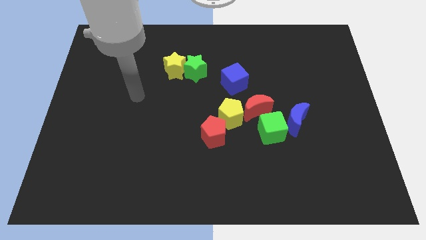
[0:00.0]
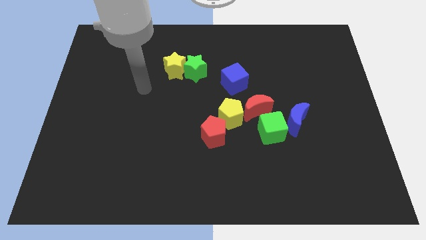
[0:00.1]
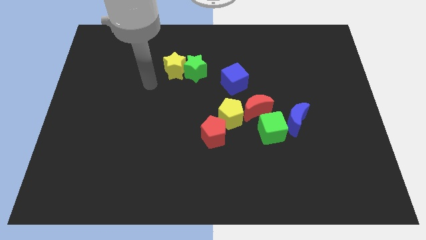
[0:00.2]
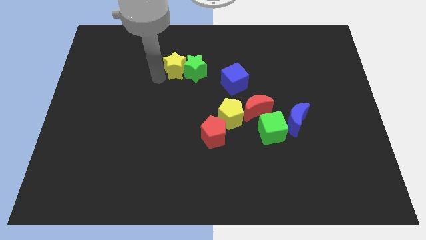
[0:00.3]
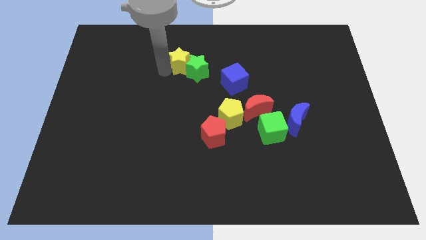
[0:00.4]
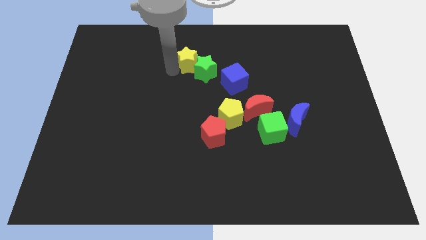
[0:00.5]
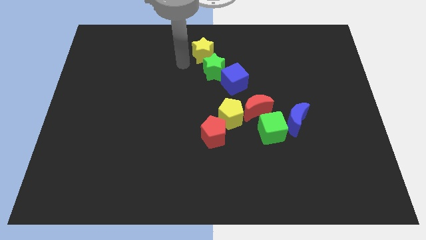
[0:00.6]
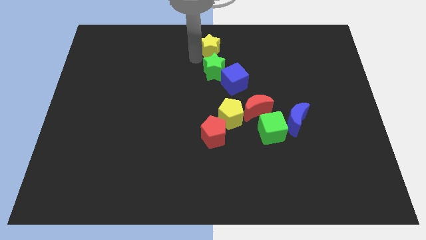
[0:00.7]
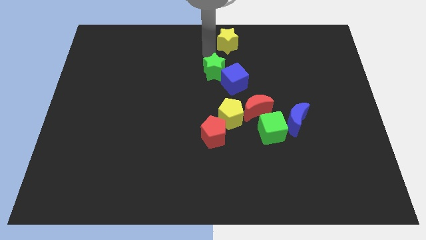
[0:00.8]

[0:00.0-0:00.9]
pull the green star apart from the yellow star

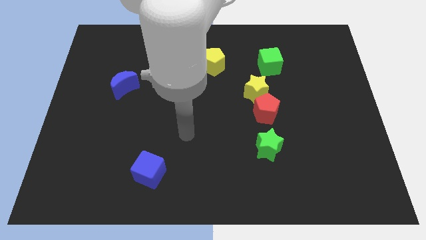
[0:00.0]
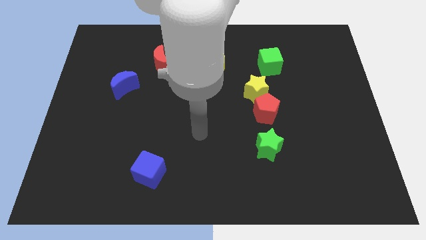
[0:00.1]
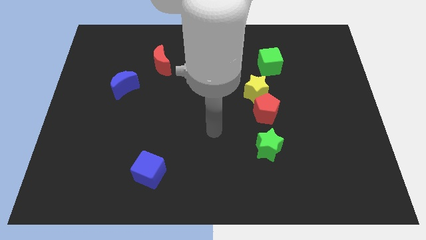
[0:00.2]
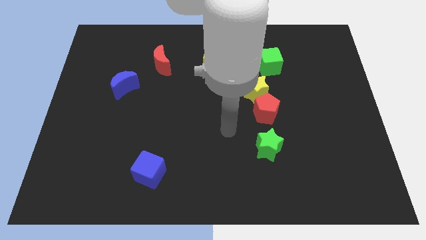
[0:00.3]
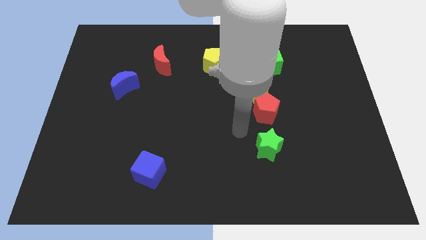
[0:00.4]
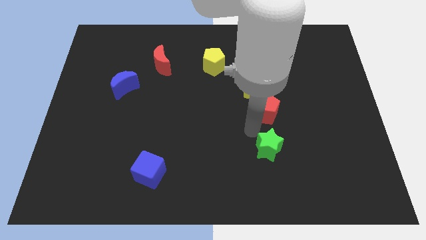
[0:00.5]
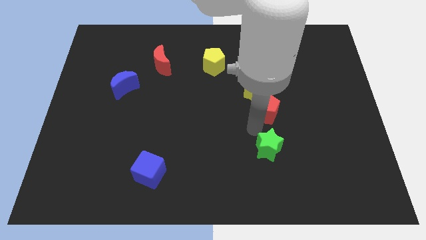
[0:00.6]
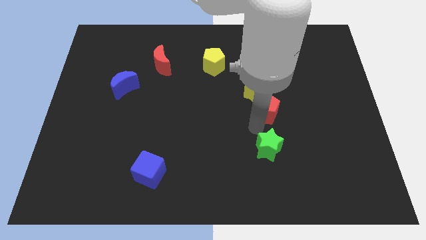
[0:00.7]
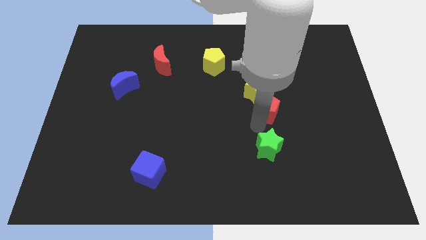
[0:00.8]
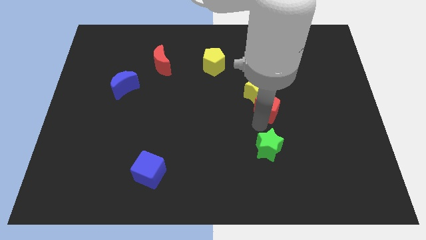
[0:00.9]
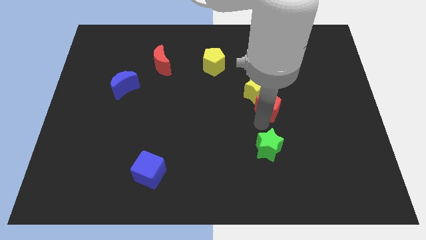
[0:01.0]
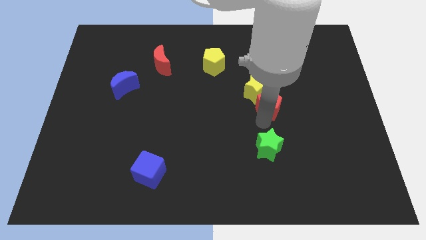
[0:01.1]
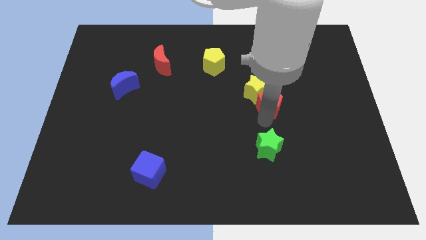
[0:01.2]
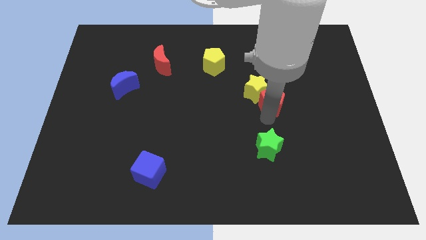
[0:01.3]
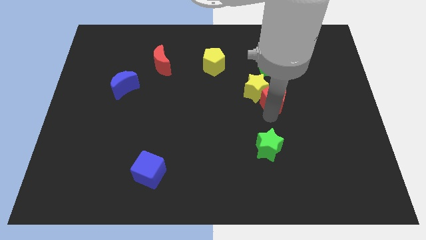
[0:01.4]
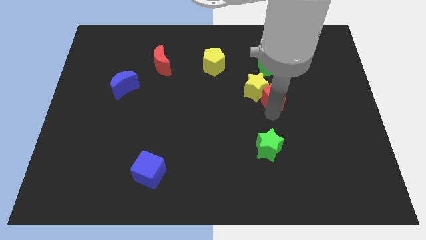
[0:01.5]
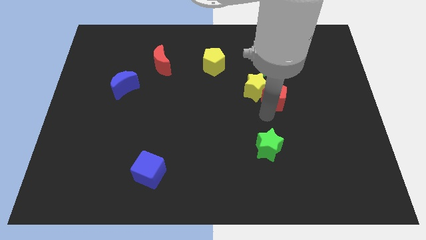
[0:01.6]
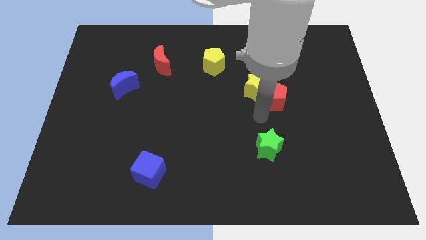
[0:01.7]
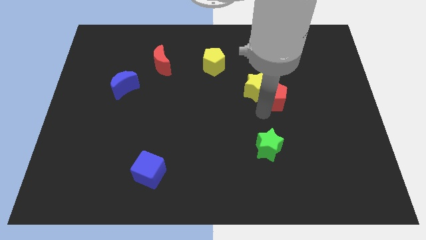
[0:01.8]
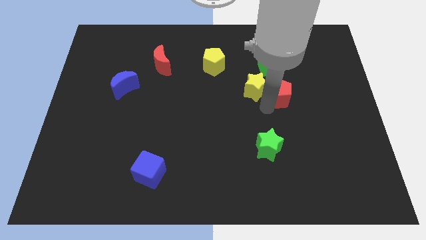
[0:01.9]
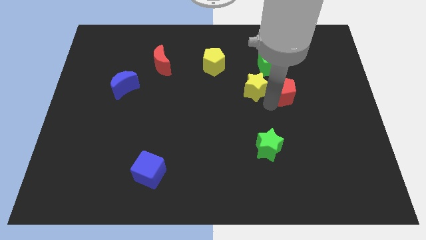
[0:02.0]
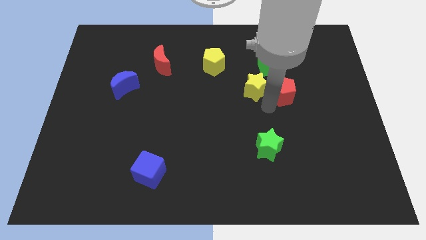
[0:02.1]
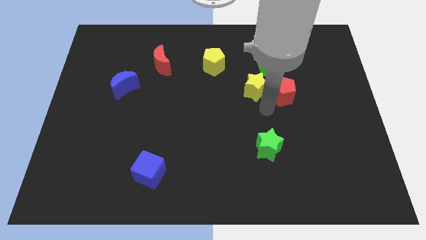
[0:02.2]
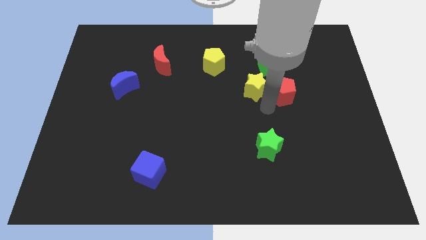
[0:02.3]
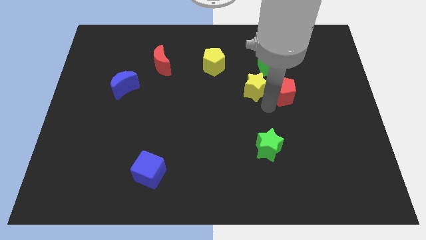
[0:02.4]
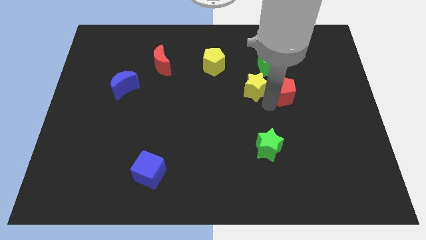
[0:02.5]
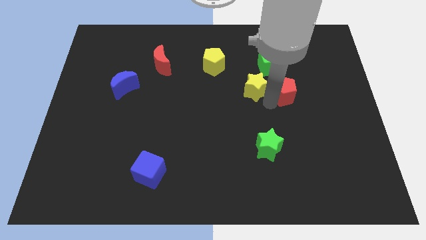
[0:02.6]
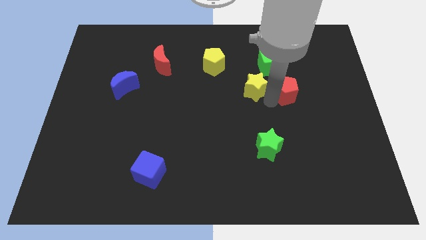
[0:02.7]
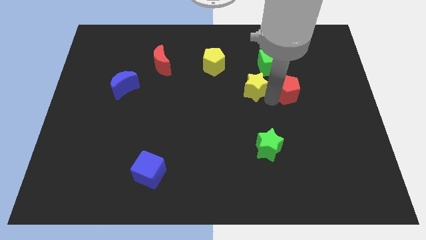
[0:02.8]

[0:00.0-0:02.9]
pull the red pentagon apart from the yellow star and green star

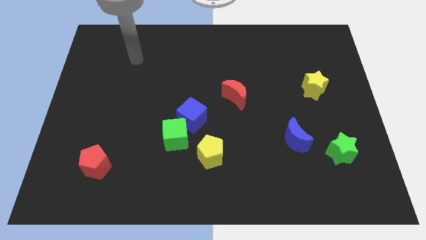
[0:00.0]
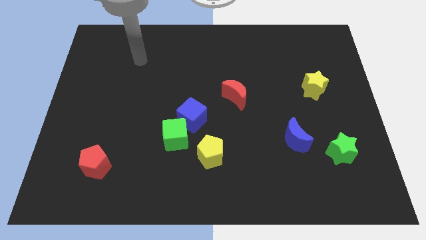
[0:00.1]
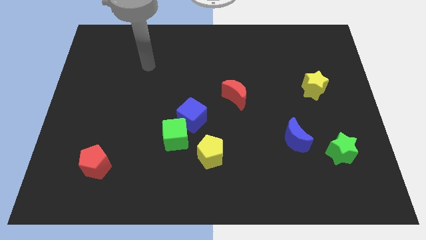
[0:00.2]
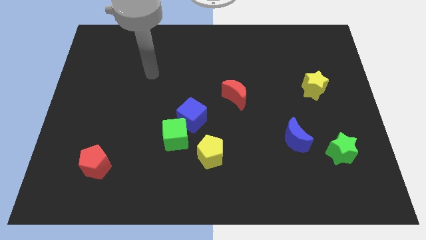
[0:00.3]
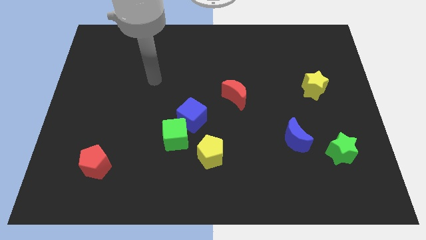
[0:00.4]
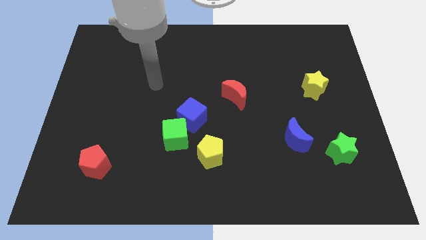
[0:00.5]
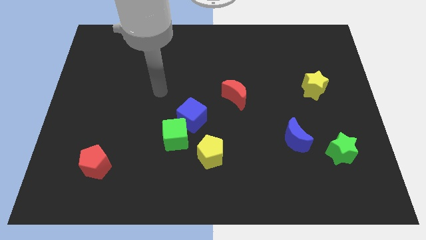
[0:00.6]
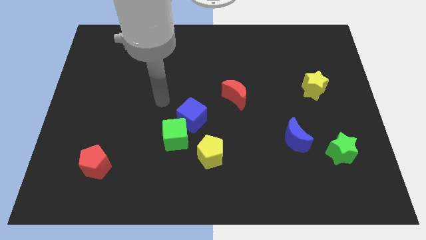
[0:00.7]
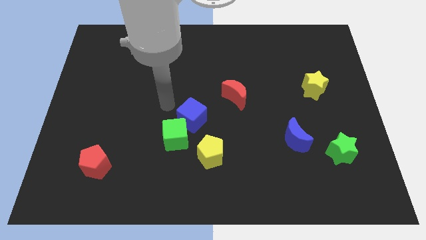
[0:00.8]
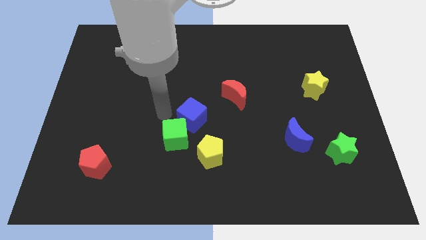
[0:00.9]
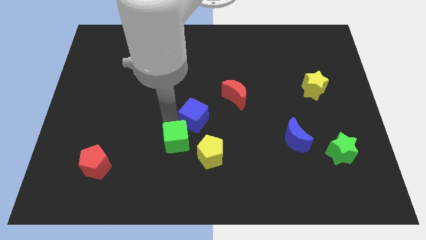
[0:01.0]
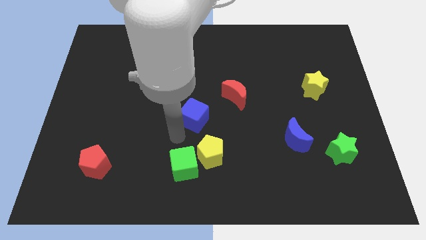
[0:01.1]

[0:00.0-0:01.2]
pull the blue cube apart from the green cube

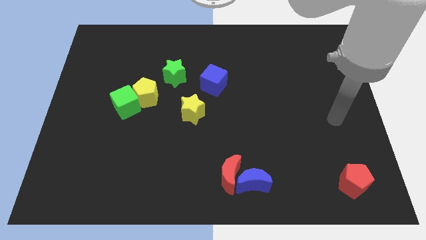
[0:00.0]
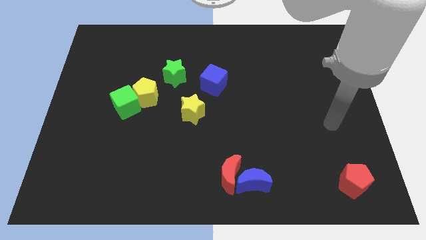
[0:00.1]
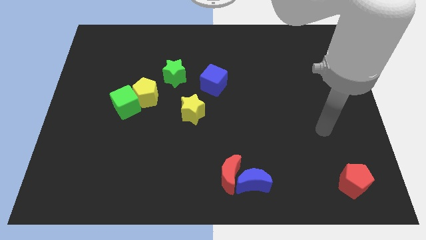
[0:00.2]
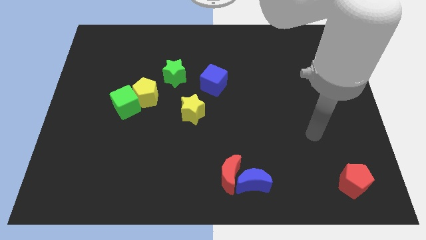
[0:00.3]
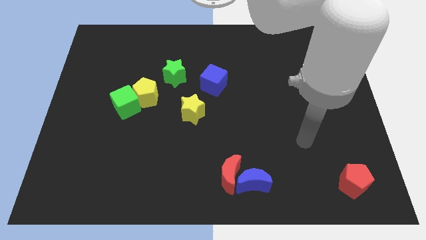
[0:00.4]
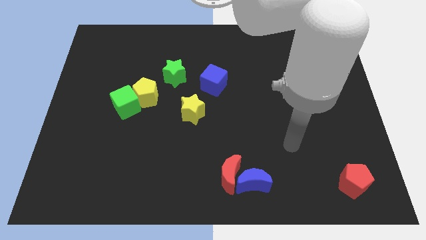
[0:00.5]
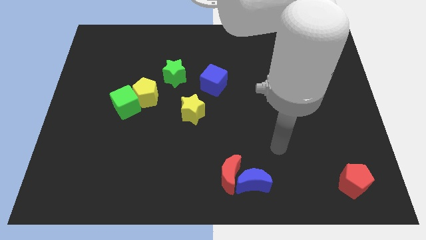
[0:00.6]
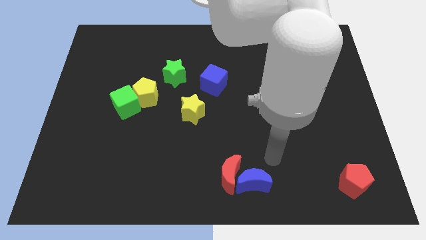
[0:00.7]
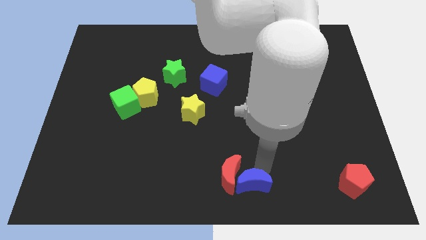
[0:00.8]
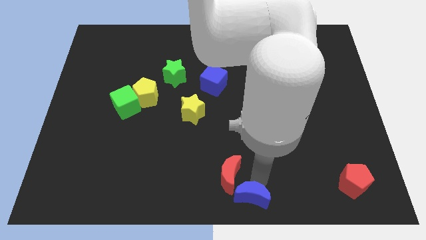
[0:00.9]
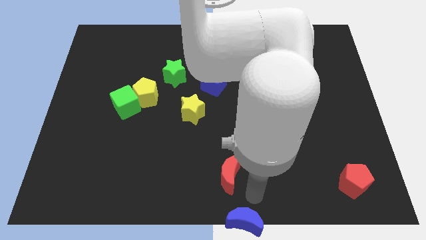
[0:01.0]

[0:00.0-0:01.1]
move the red moon away from the blue moon

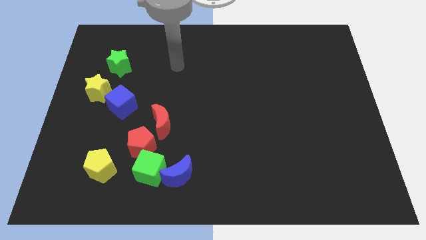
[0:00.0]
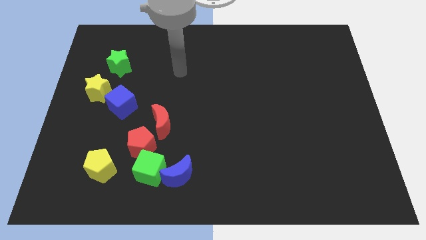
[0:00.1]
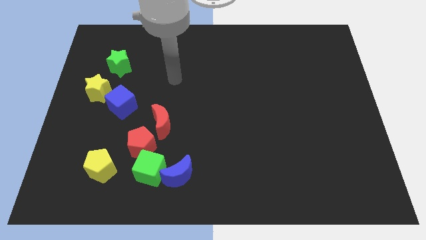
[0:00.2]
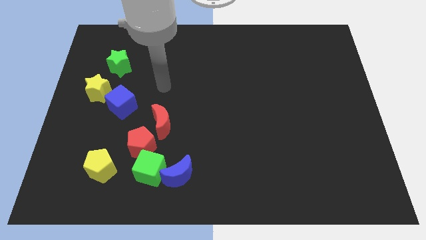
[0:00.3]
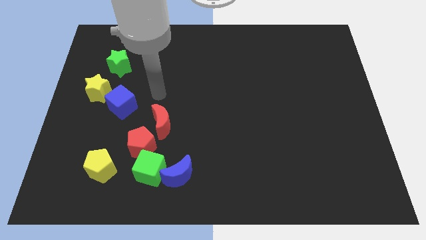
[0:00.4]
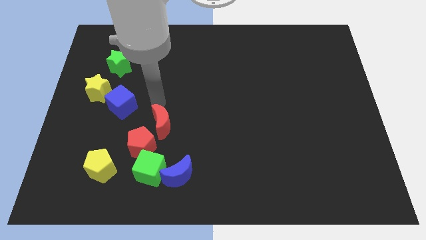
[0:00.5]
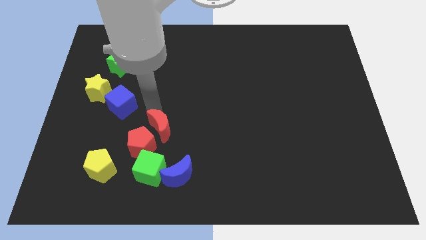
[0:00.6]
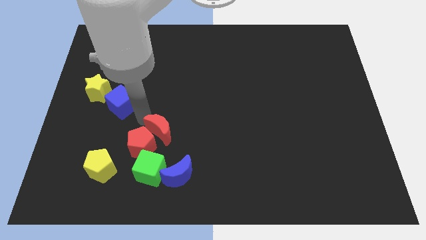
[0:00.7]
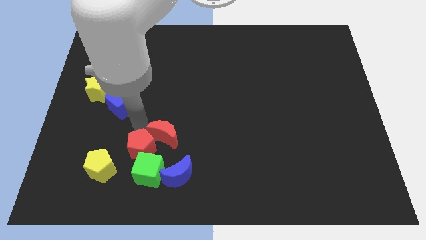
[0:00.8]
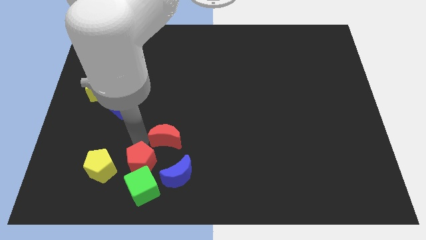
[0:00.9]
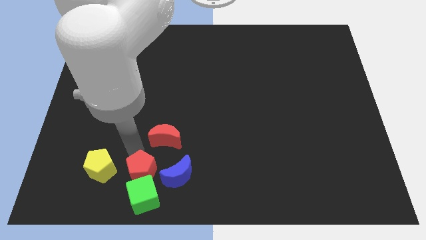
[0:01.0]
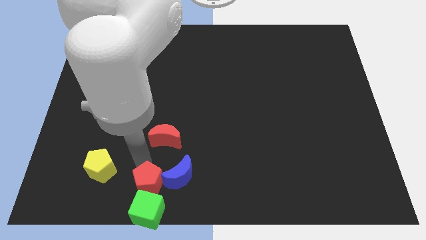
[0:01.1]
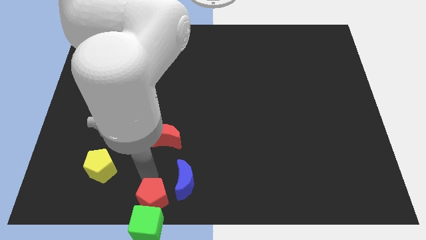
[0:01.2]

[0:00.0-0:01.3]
pull the blue moon apart from the green cube

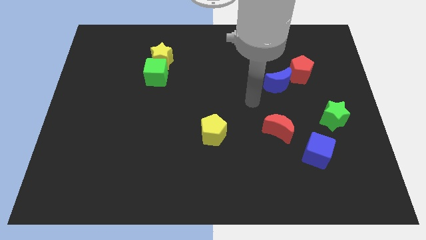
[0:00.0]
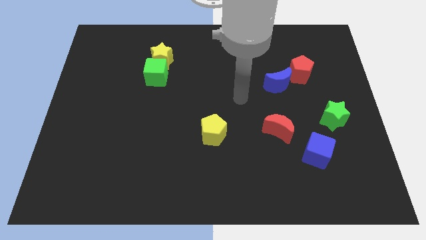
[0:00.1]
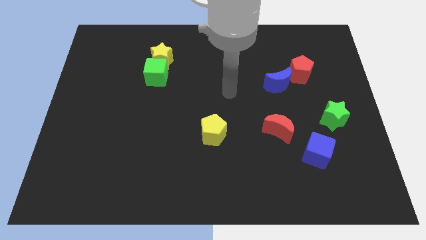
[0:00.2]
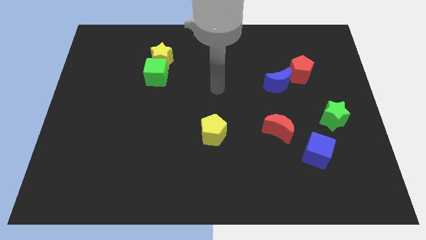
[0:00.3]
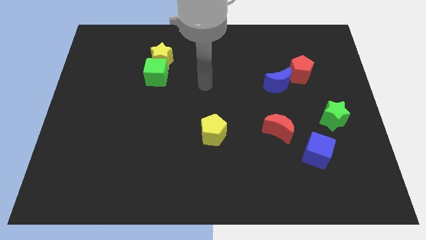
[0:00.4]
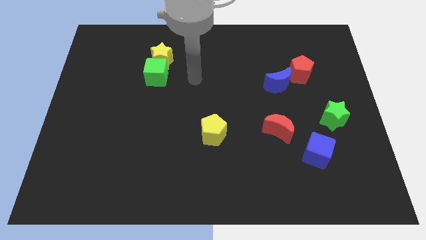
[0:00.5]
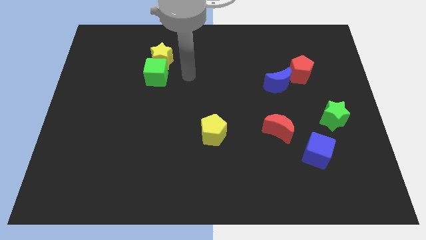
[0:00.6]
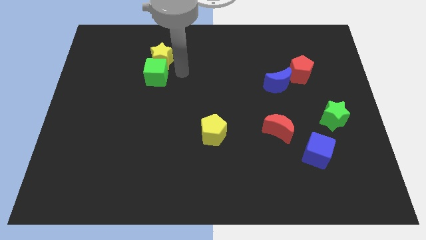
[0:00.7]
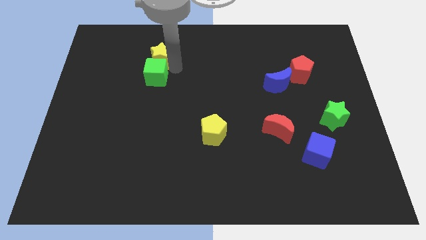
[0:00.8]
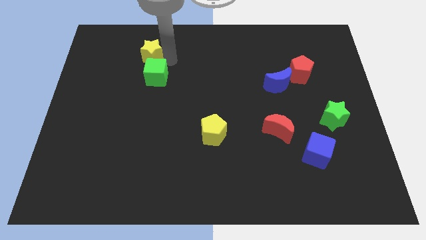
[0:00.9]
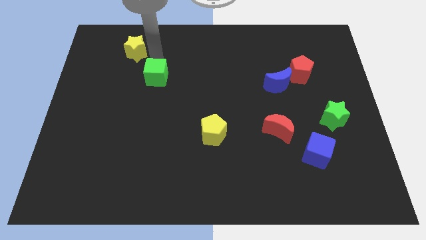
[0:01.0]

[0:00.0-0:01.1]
move the green cube away from the yellow star

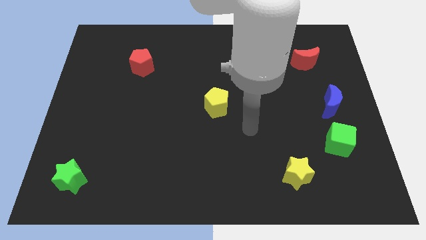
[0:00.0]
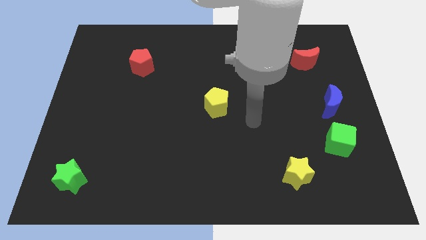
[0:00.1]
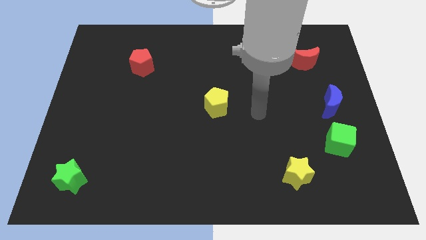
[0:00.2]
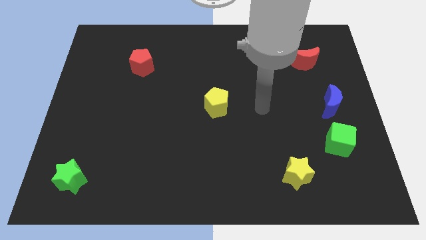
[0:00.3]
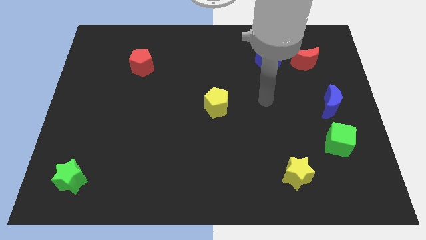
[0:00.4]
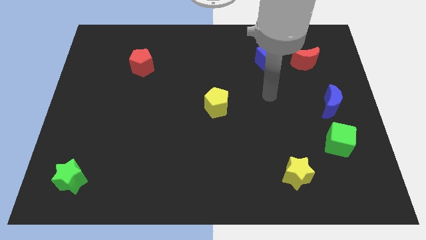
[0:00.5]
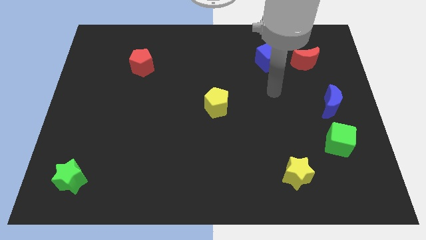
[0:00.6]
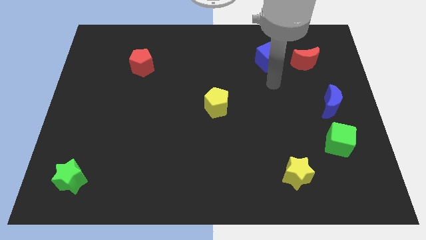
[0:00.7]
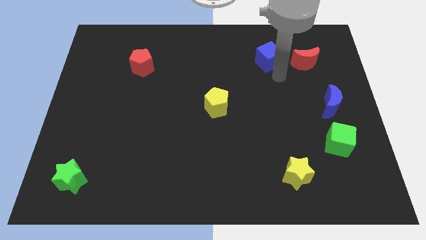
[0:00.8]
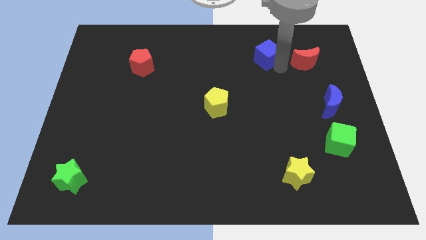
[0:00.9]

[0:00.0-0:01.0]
pull the red moon apart from the blue cube
